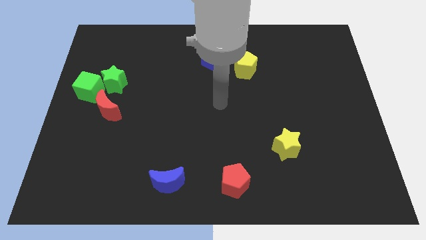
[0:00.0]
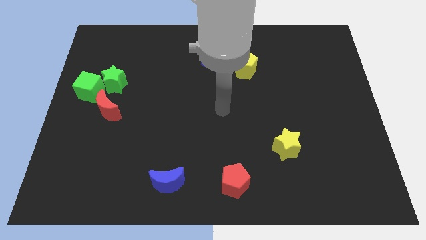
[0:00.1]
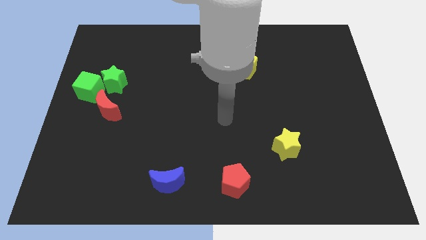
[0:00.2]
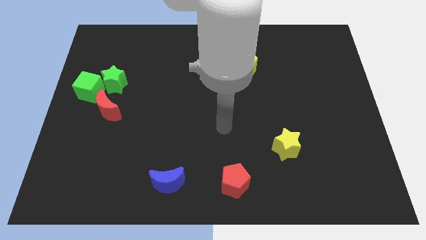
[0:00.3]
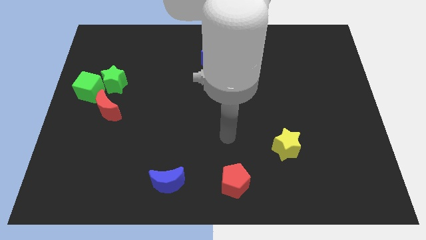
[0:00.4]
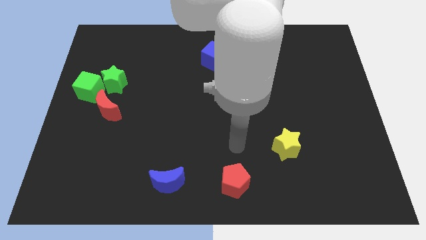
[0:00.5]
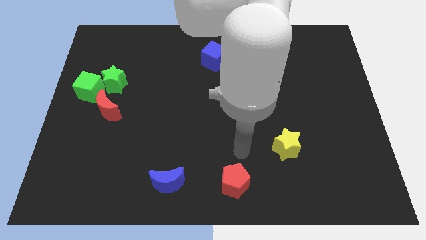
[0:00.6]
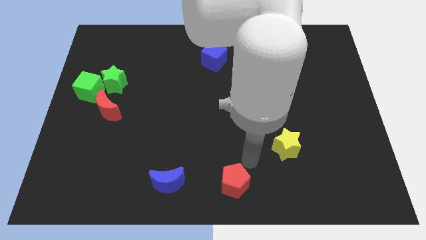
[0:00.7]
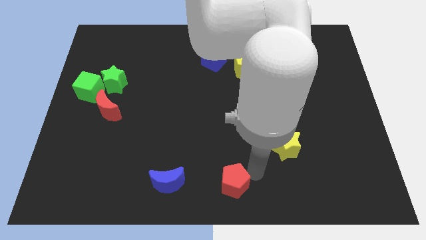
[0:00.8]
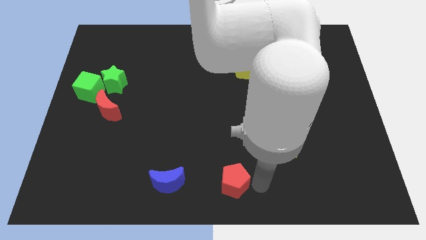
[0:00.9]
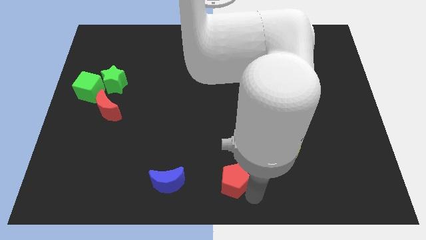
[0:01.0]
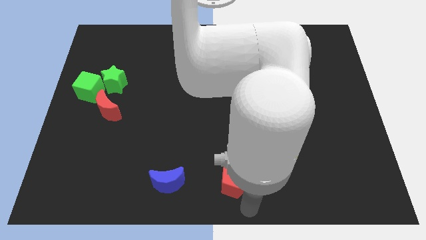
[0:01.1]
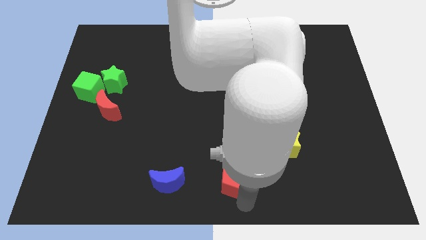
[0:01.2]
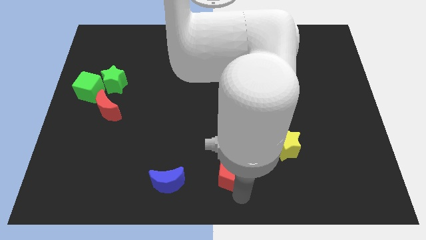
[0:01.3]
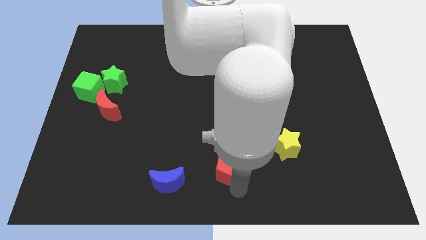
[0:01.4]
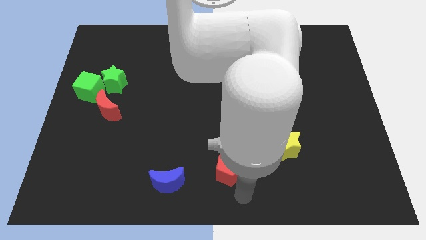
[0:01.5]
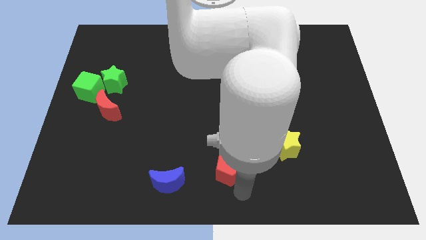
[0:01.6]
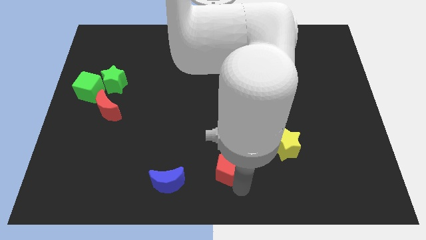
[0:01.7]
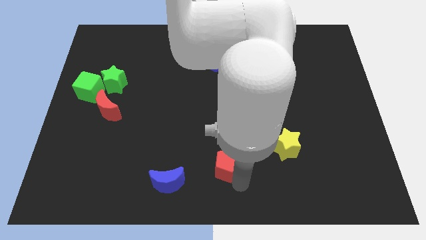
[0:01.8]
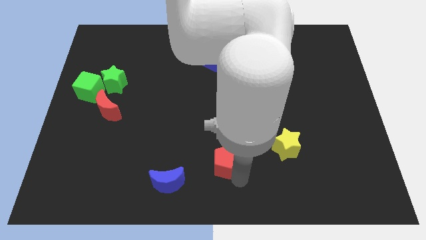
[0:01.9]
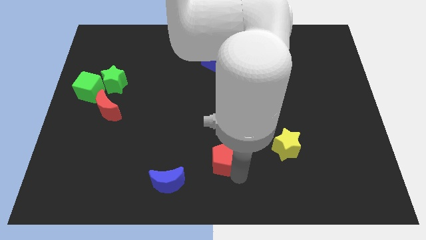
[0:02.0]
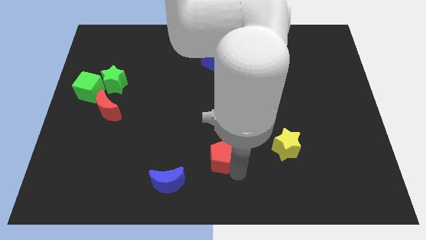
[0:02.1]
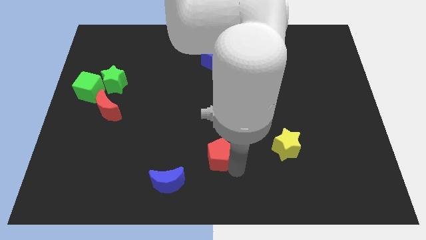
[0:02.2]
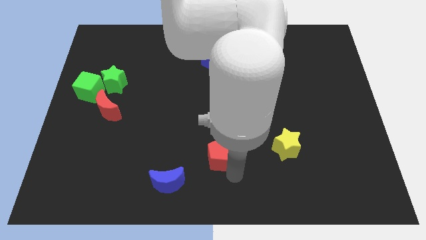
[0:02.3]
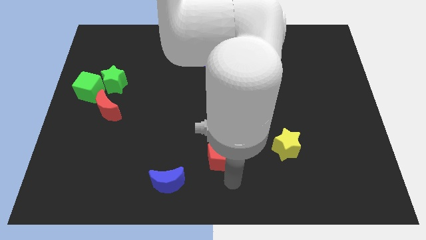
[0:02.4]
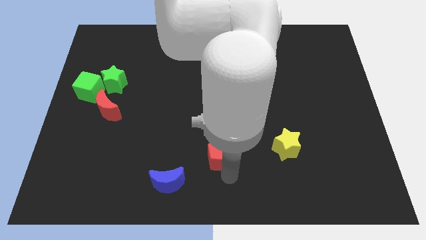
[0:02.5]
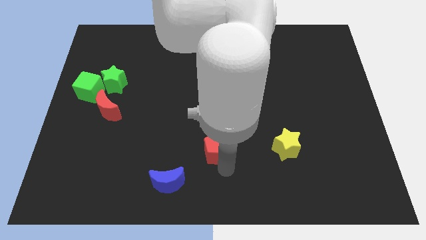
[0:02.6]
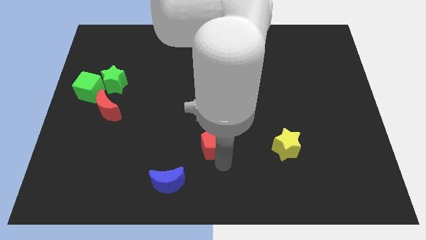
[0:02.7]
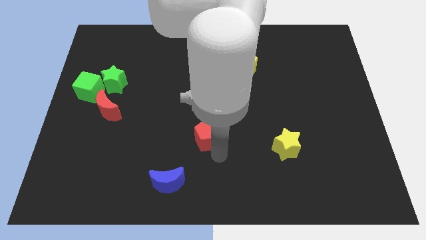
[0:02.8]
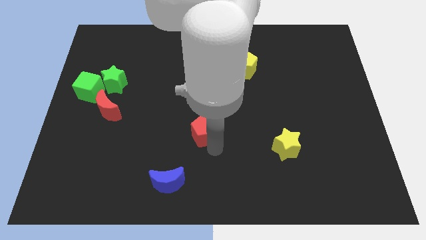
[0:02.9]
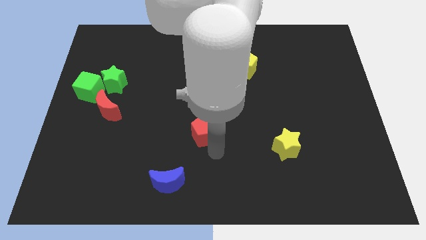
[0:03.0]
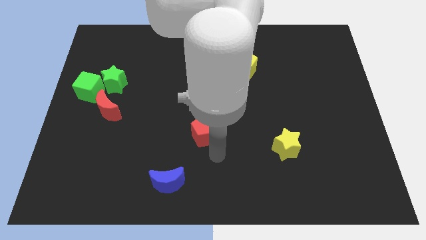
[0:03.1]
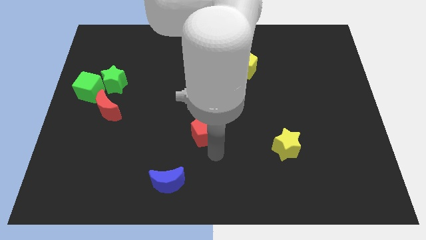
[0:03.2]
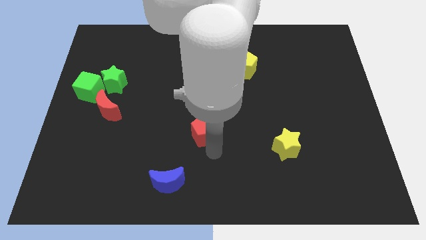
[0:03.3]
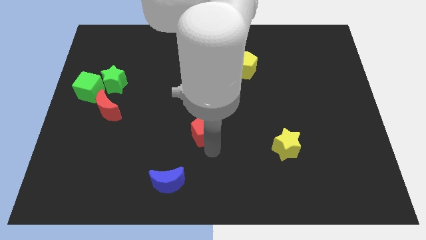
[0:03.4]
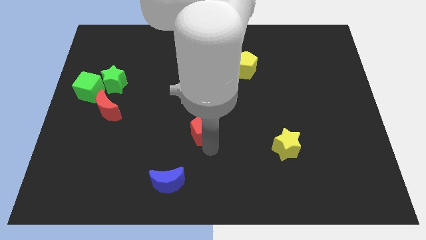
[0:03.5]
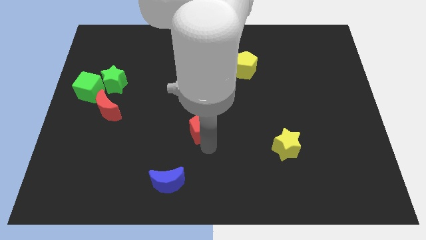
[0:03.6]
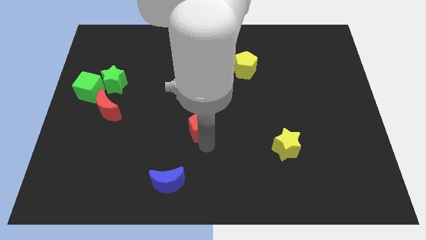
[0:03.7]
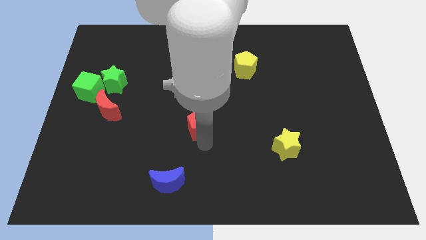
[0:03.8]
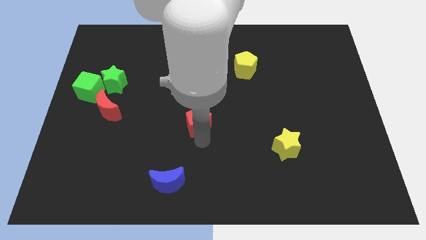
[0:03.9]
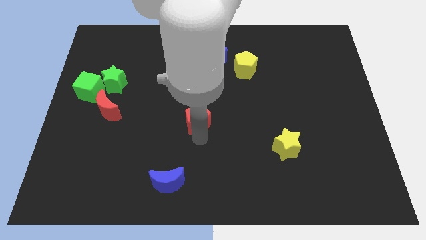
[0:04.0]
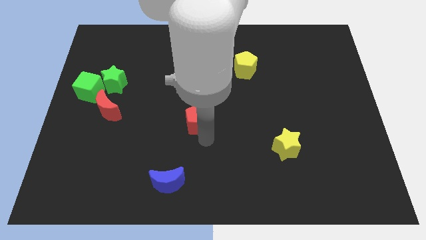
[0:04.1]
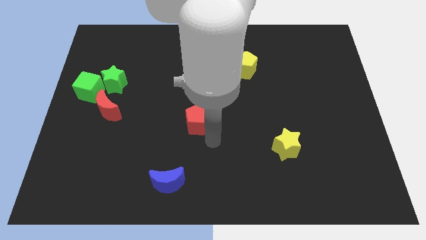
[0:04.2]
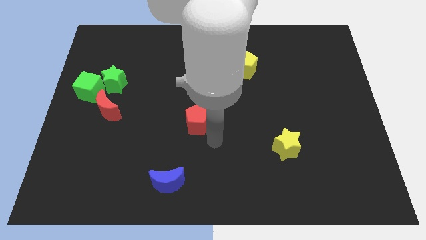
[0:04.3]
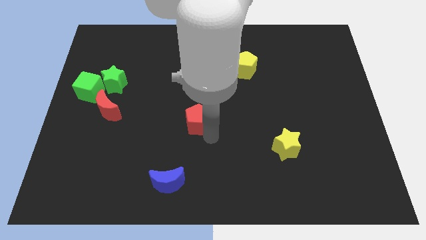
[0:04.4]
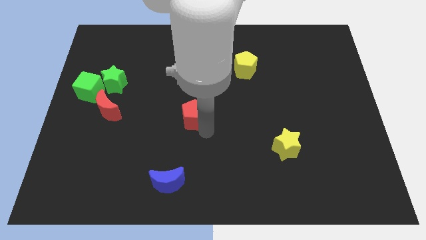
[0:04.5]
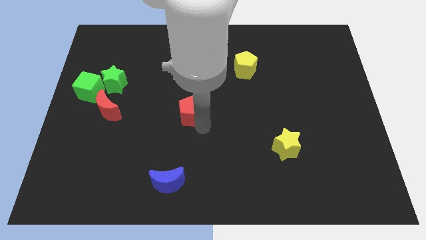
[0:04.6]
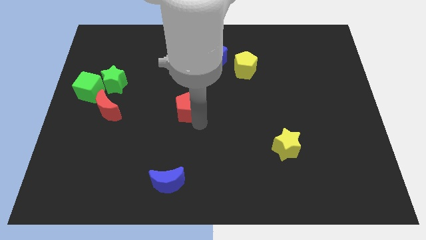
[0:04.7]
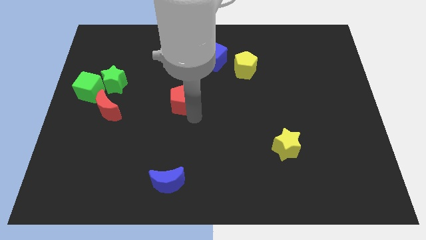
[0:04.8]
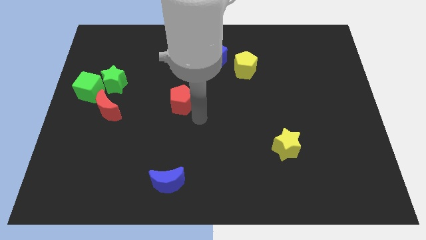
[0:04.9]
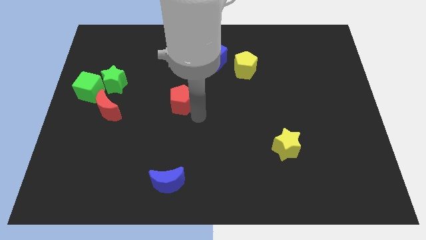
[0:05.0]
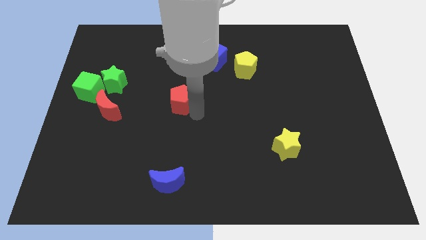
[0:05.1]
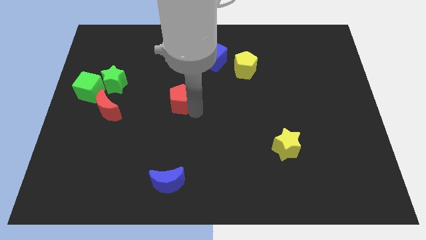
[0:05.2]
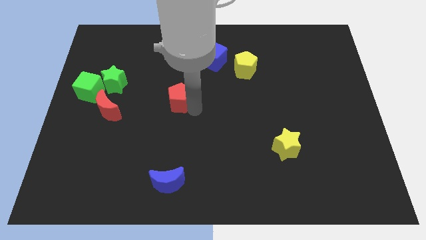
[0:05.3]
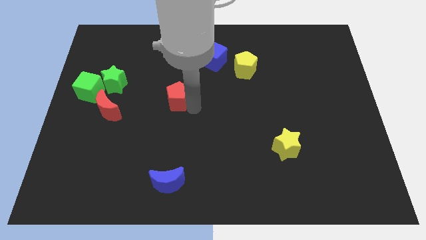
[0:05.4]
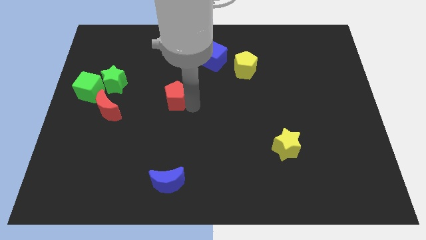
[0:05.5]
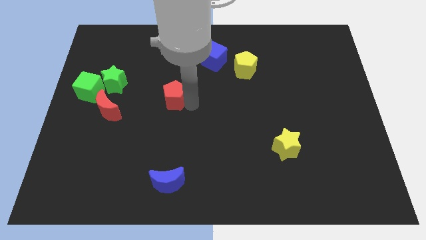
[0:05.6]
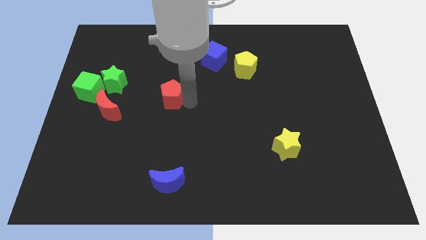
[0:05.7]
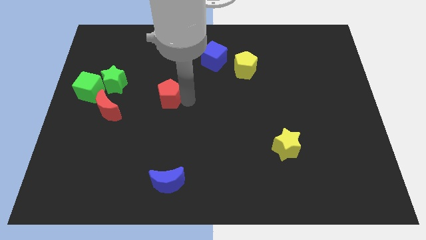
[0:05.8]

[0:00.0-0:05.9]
move the red pentagon just right of the green star

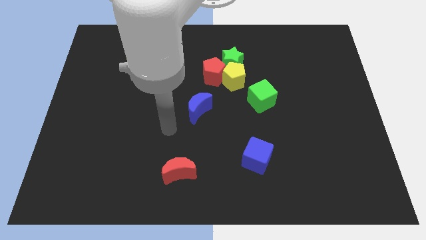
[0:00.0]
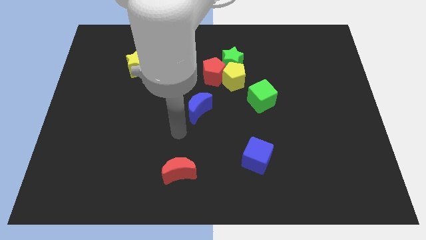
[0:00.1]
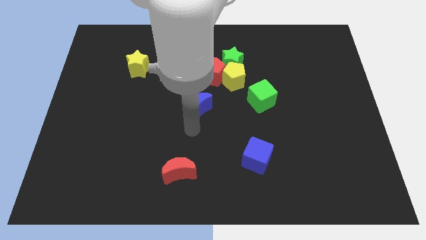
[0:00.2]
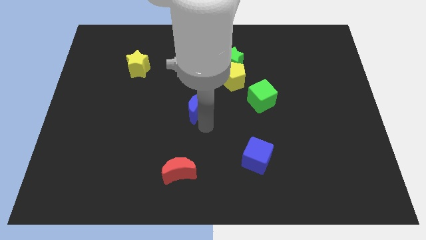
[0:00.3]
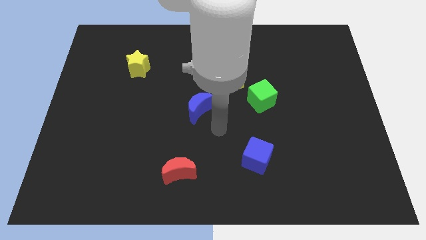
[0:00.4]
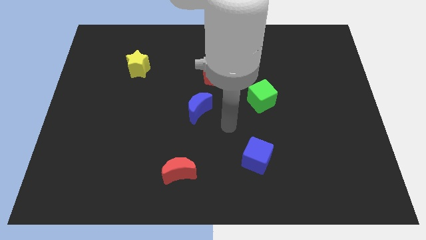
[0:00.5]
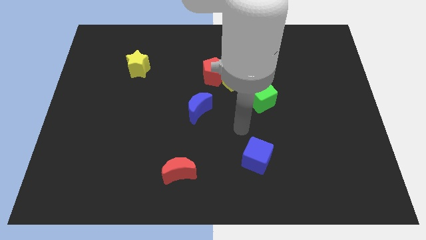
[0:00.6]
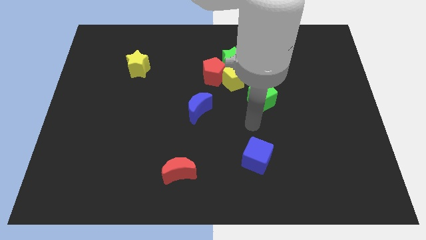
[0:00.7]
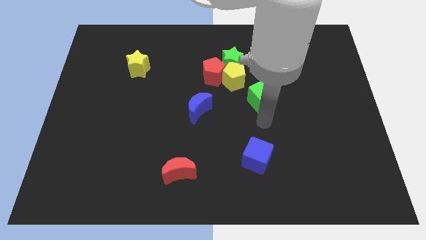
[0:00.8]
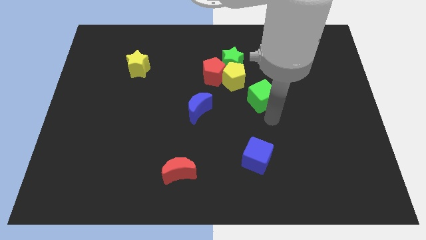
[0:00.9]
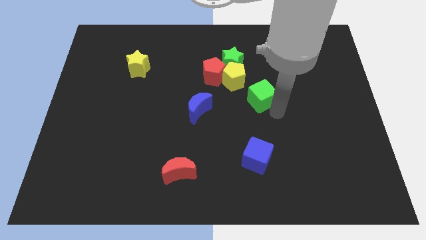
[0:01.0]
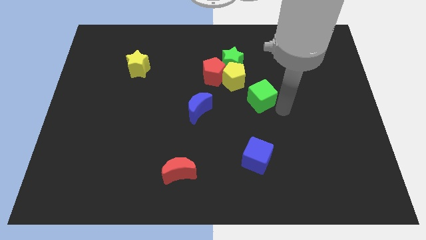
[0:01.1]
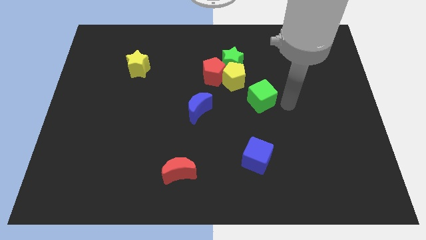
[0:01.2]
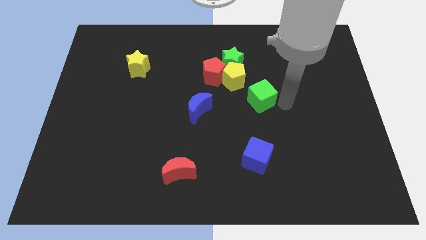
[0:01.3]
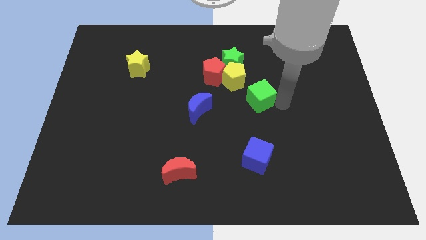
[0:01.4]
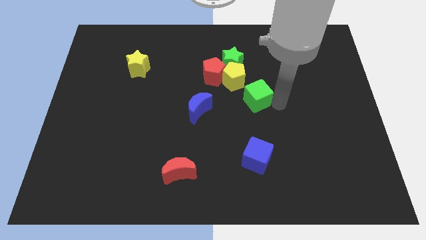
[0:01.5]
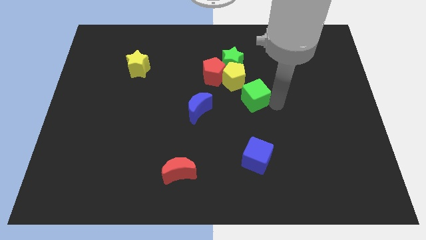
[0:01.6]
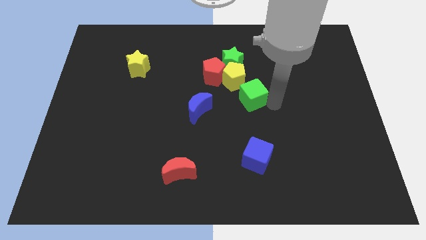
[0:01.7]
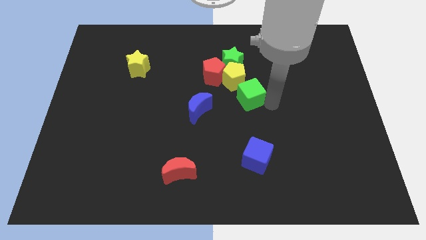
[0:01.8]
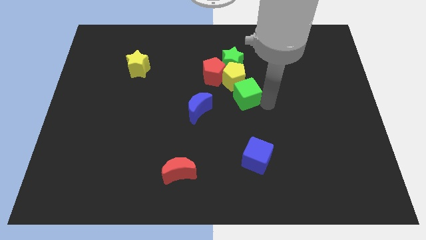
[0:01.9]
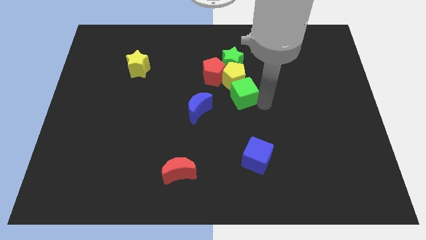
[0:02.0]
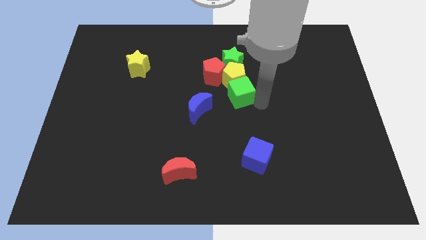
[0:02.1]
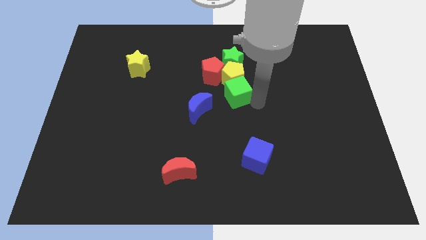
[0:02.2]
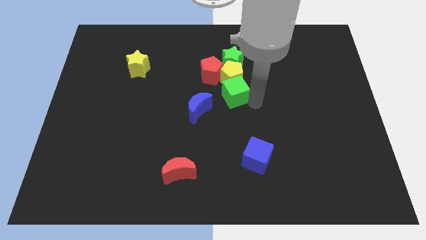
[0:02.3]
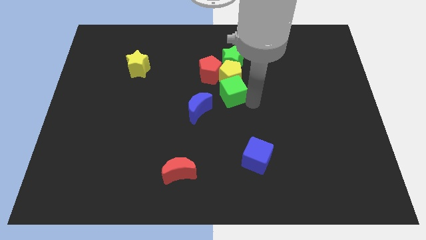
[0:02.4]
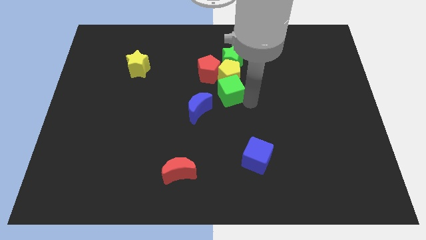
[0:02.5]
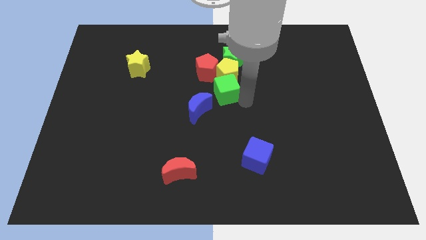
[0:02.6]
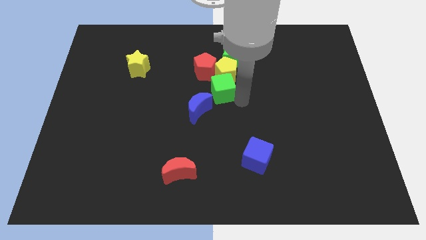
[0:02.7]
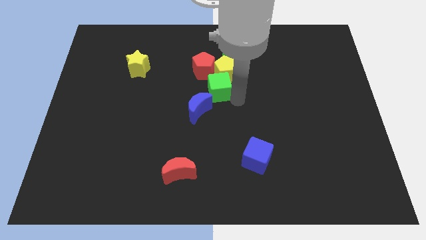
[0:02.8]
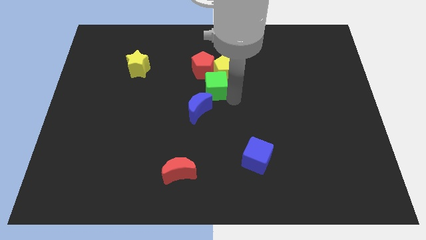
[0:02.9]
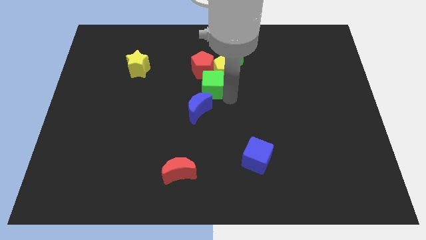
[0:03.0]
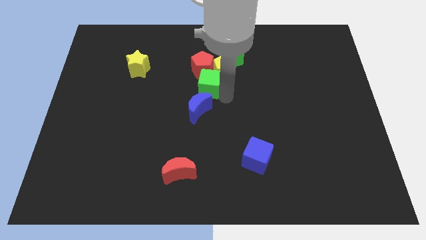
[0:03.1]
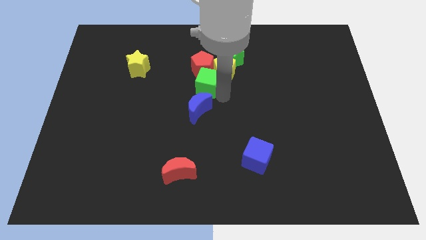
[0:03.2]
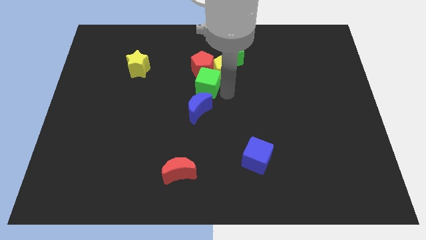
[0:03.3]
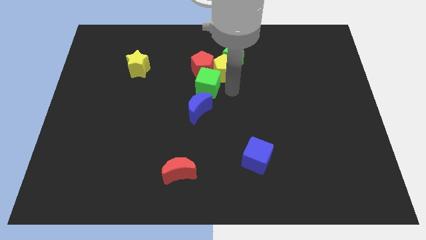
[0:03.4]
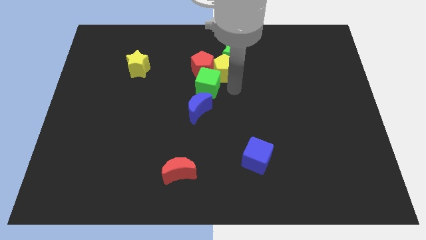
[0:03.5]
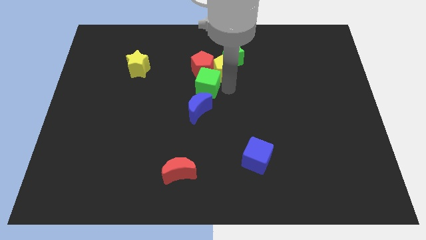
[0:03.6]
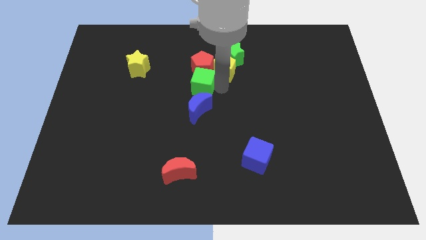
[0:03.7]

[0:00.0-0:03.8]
put the green cube to the bottom left of the red pentagon
